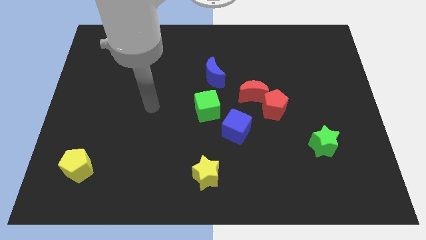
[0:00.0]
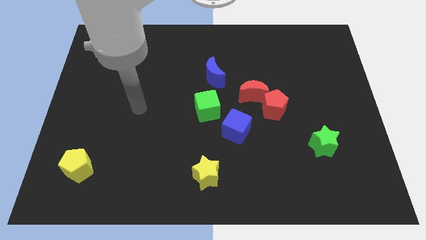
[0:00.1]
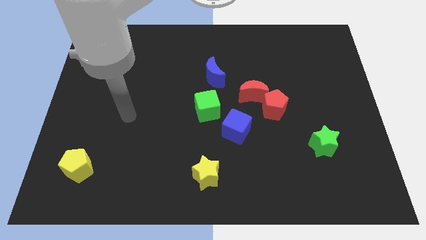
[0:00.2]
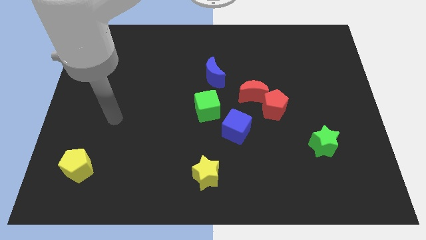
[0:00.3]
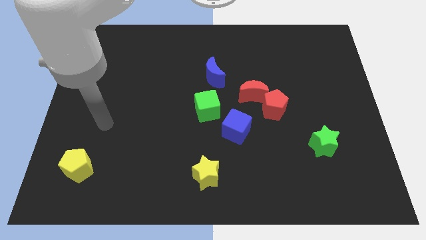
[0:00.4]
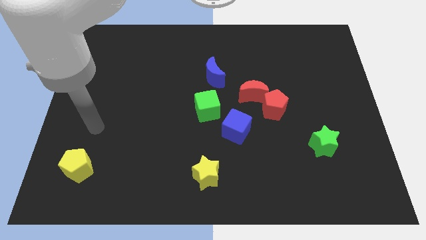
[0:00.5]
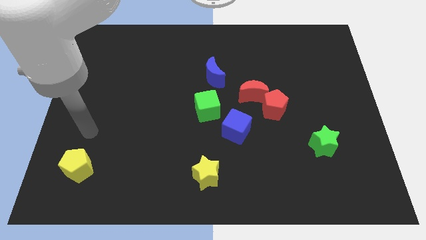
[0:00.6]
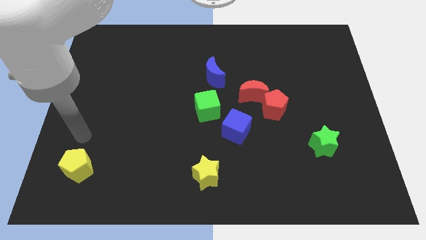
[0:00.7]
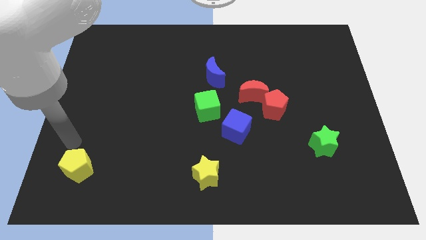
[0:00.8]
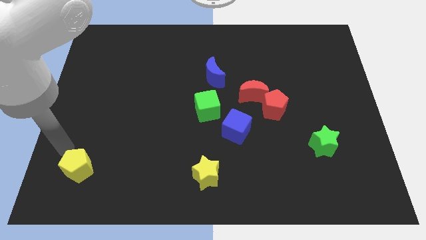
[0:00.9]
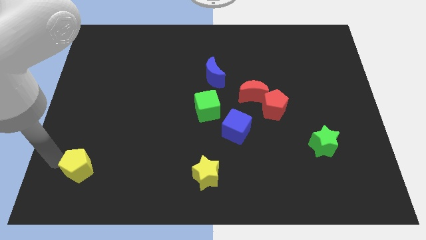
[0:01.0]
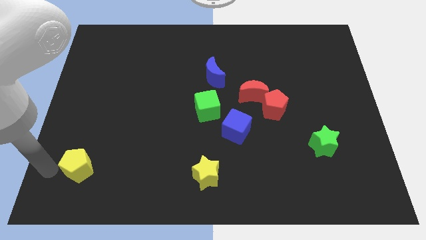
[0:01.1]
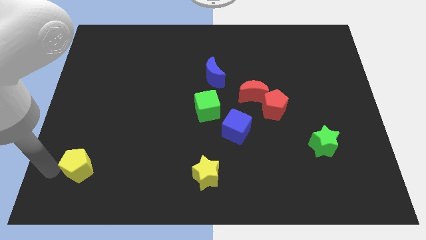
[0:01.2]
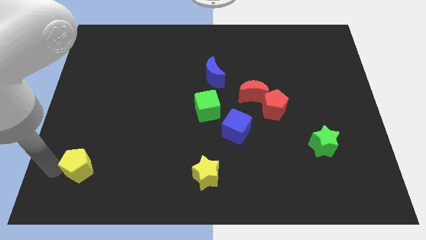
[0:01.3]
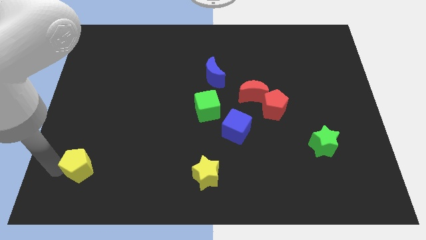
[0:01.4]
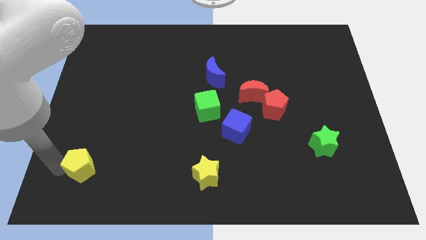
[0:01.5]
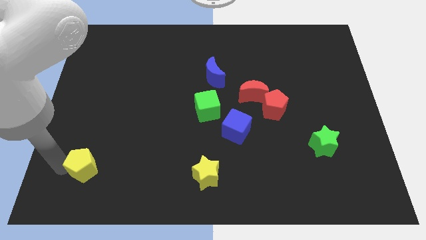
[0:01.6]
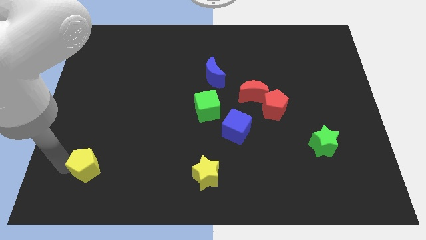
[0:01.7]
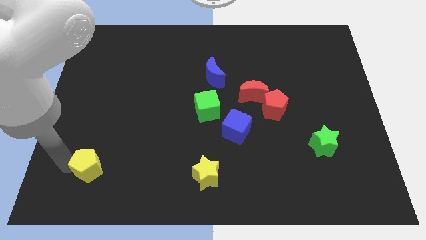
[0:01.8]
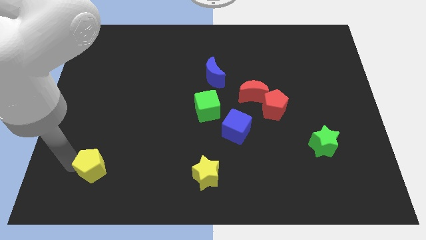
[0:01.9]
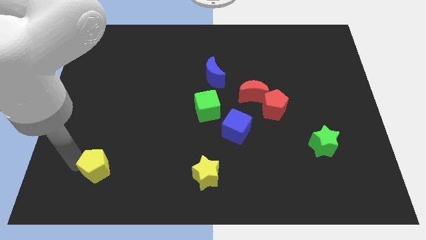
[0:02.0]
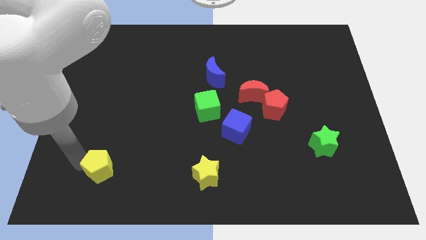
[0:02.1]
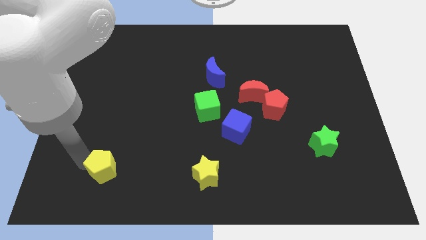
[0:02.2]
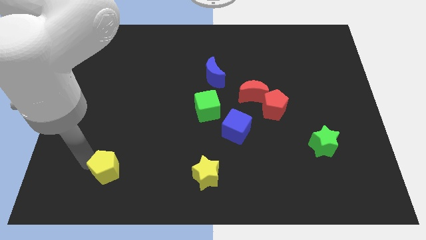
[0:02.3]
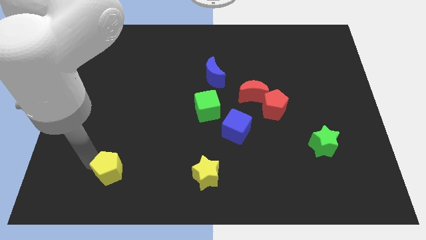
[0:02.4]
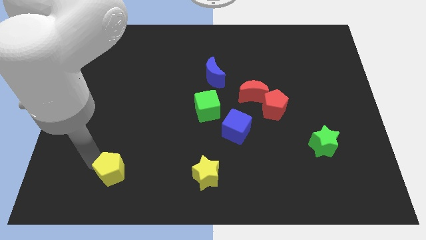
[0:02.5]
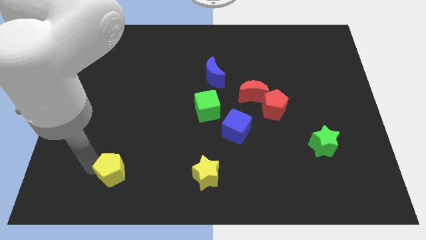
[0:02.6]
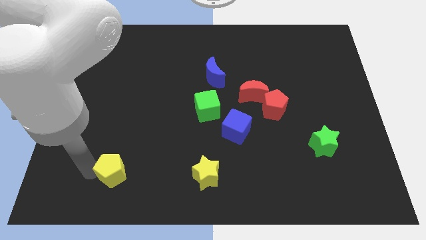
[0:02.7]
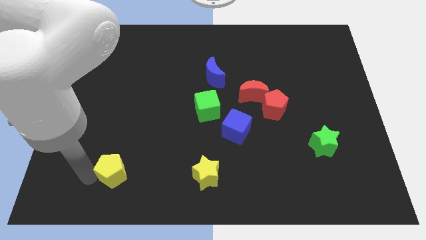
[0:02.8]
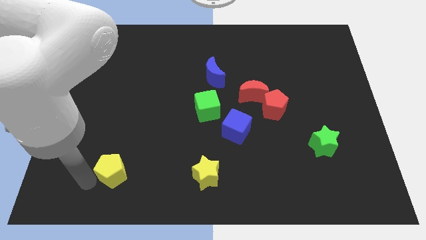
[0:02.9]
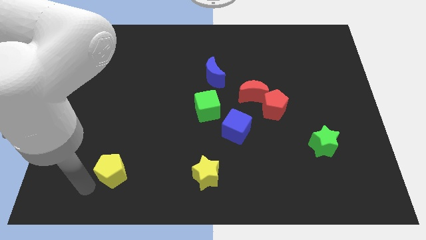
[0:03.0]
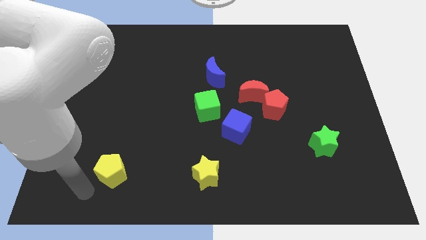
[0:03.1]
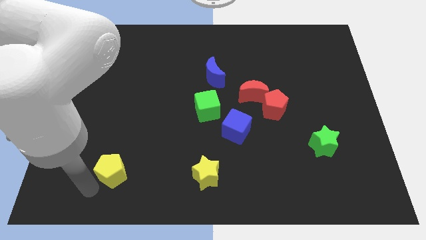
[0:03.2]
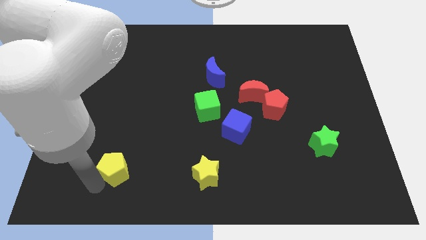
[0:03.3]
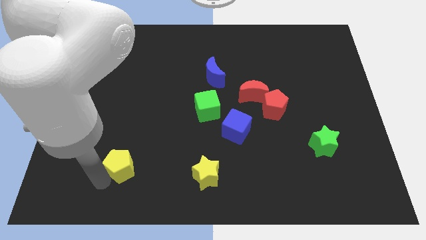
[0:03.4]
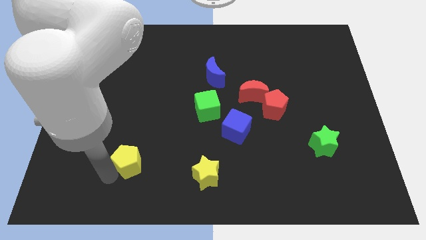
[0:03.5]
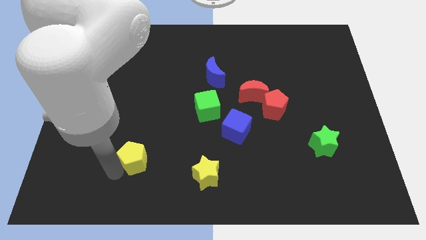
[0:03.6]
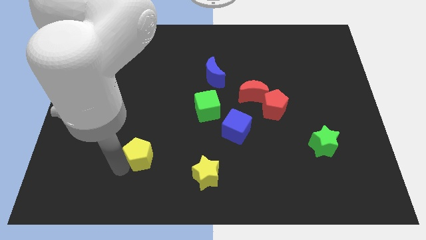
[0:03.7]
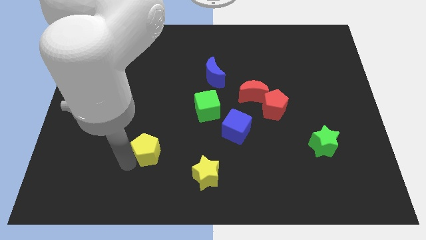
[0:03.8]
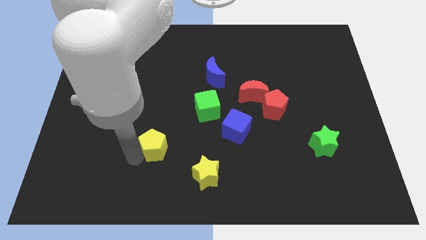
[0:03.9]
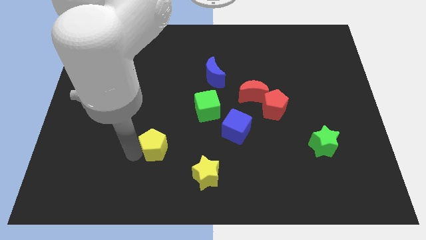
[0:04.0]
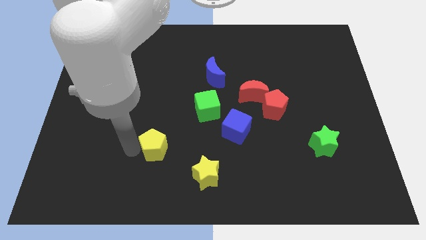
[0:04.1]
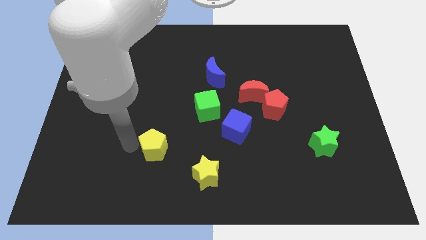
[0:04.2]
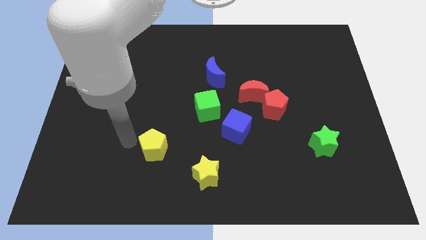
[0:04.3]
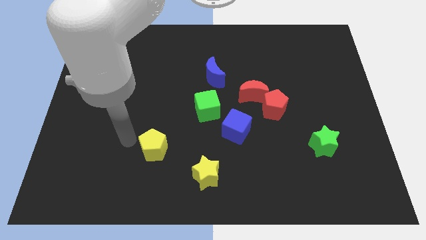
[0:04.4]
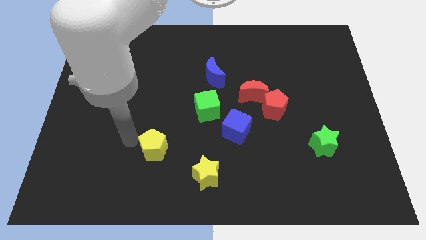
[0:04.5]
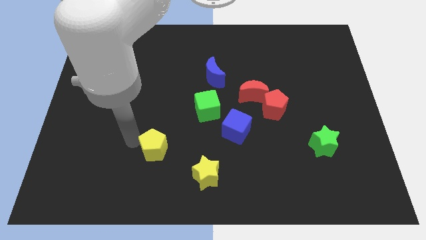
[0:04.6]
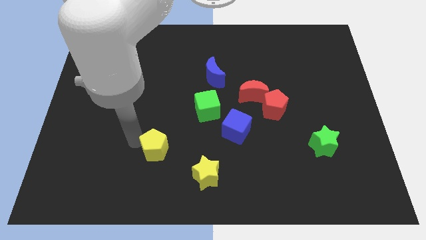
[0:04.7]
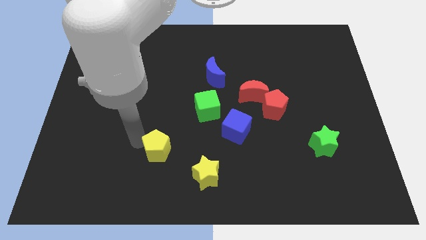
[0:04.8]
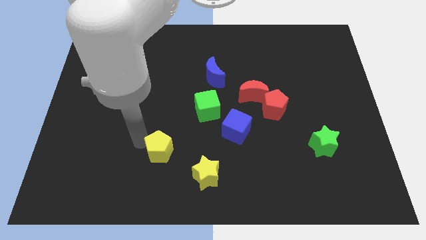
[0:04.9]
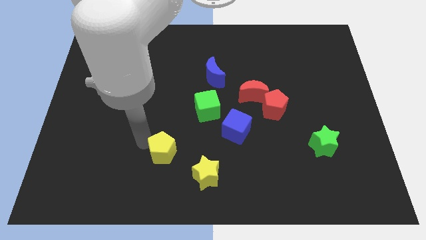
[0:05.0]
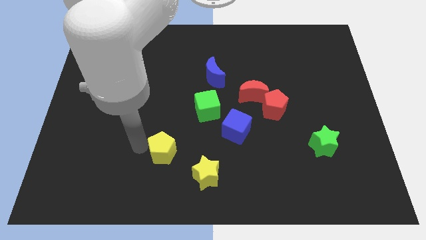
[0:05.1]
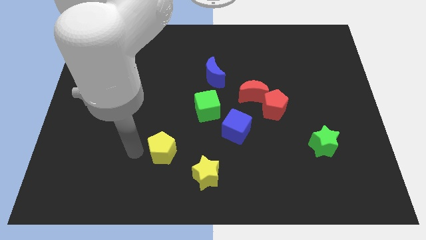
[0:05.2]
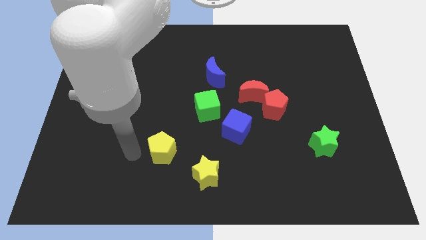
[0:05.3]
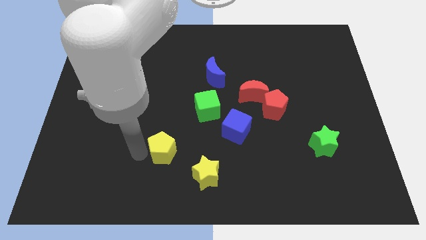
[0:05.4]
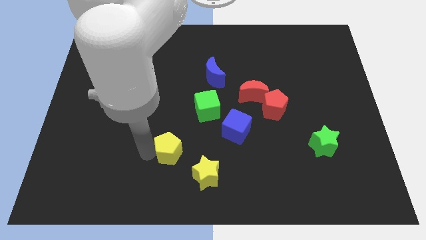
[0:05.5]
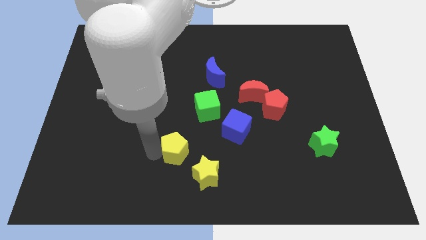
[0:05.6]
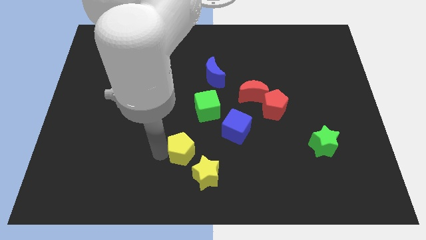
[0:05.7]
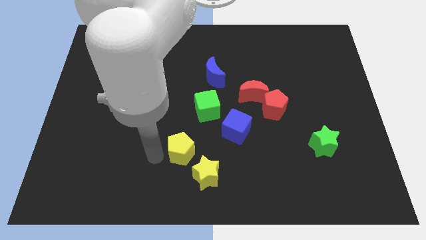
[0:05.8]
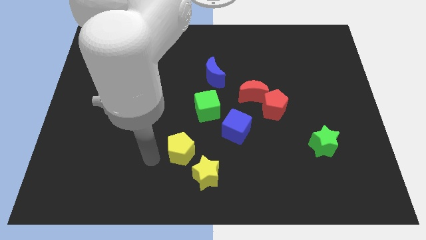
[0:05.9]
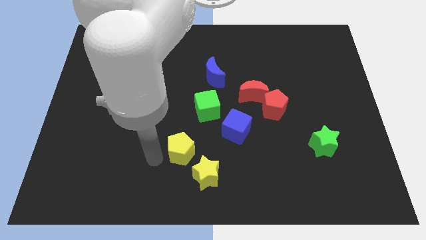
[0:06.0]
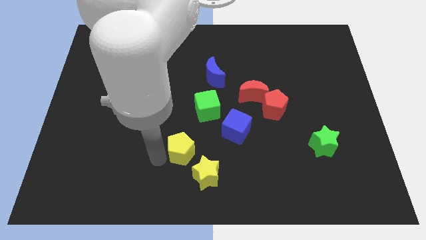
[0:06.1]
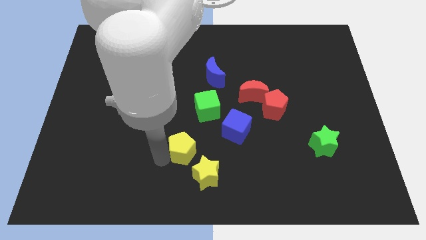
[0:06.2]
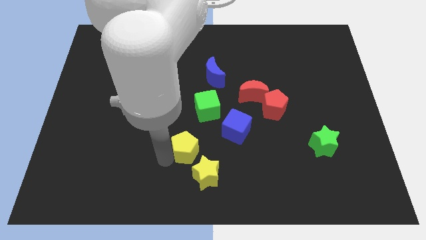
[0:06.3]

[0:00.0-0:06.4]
slide the yellow pentagon below the green cube

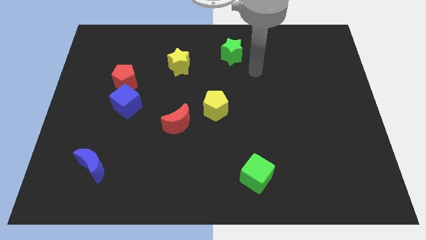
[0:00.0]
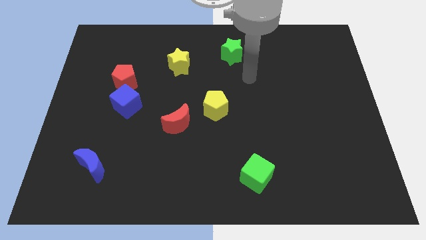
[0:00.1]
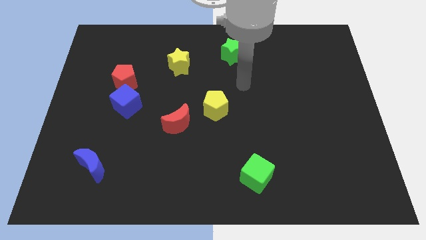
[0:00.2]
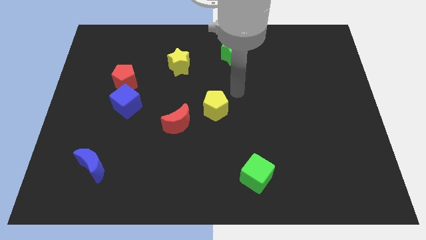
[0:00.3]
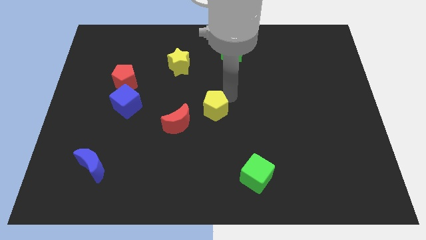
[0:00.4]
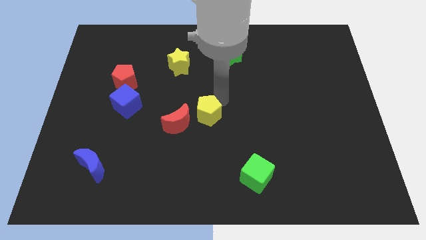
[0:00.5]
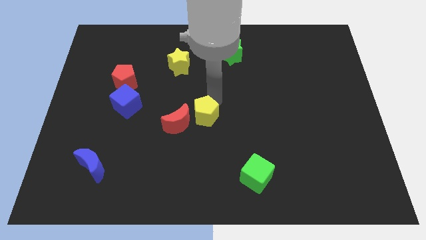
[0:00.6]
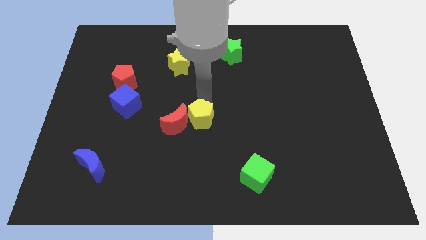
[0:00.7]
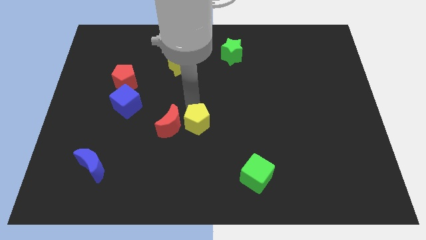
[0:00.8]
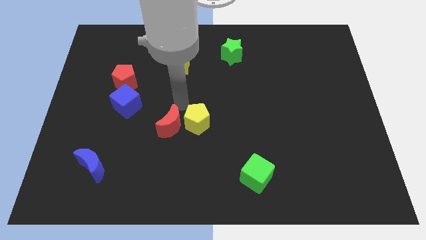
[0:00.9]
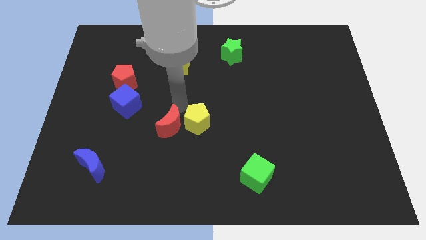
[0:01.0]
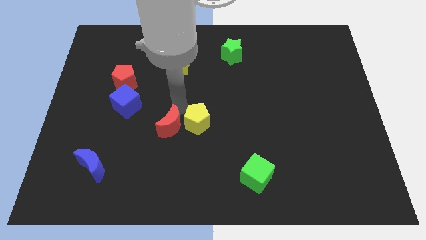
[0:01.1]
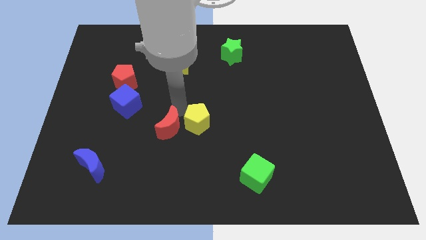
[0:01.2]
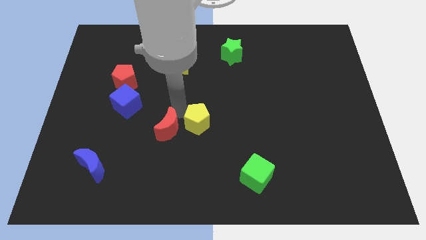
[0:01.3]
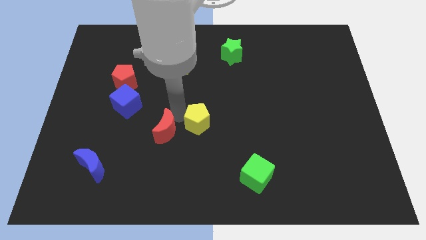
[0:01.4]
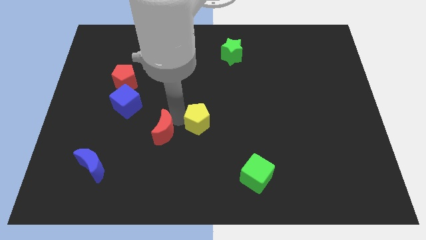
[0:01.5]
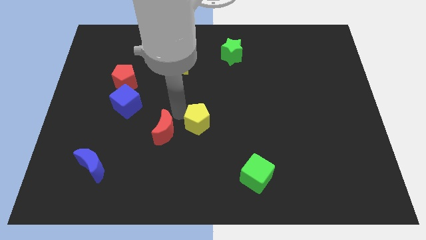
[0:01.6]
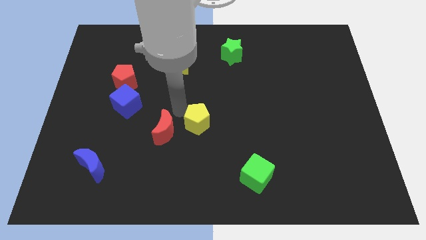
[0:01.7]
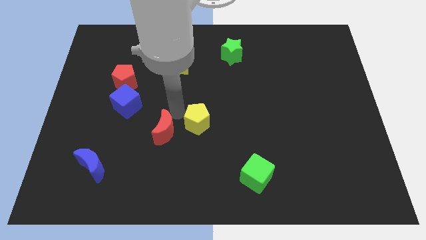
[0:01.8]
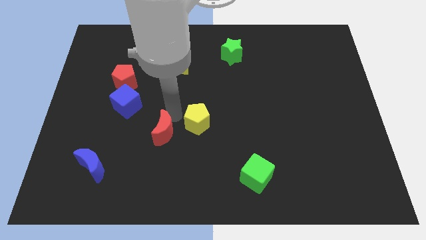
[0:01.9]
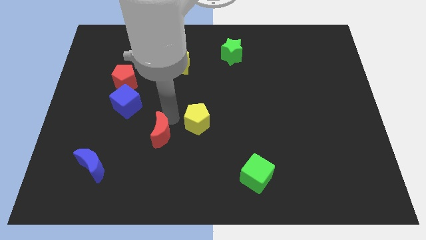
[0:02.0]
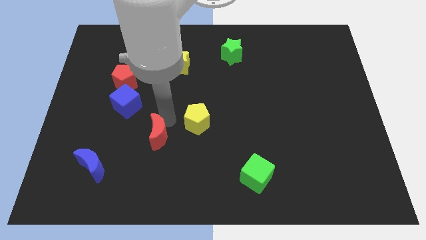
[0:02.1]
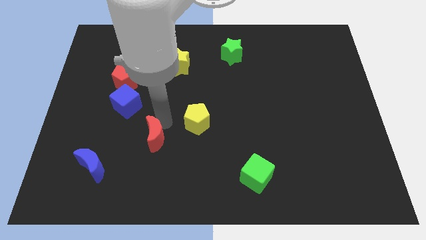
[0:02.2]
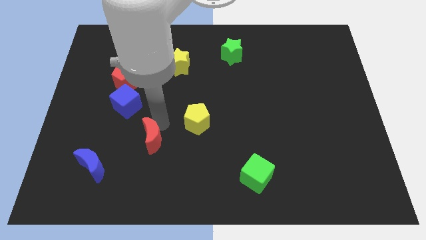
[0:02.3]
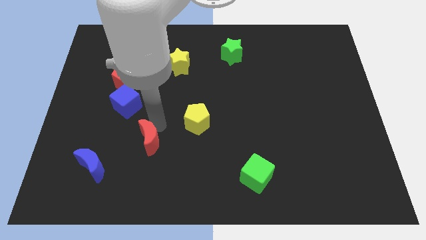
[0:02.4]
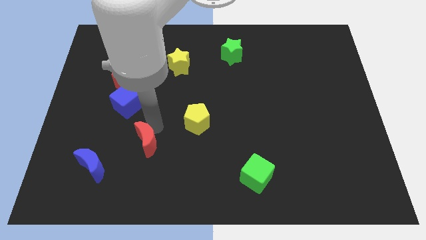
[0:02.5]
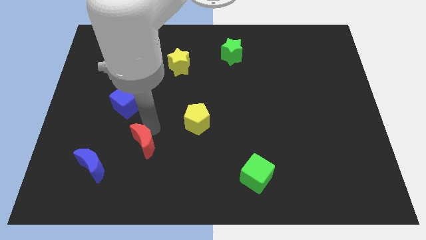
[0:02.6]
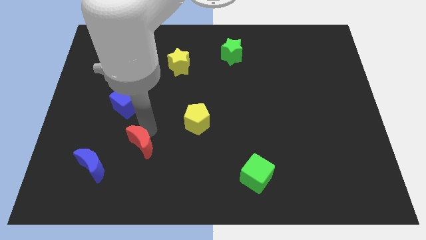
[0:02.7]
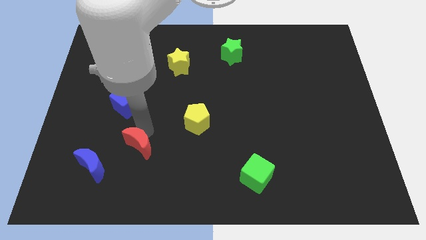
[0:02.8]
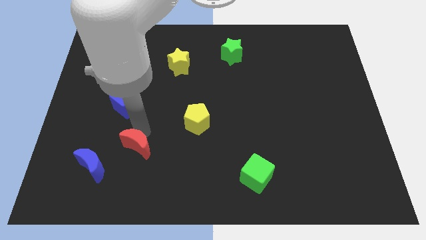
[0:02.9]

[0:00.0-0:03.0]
move the red moon to the right of the blue moon
